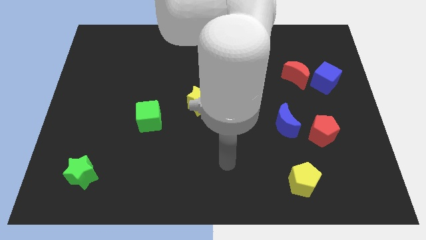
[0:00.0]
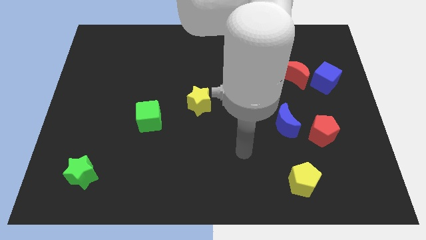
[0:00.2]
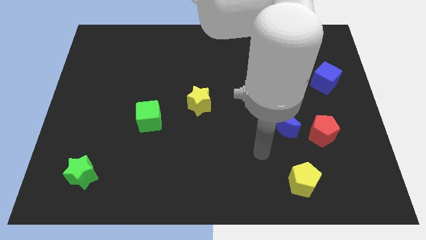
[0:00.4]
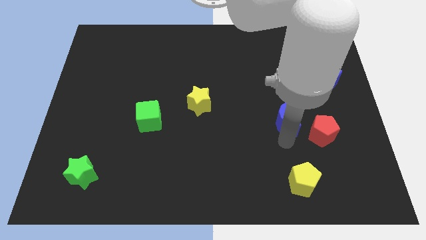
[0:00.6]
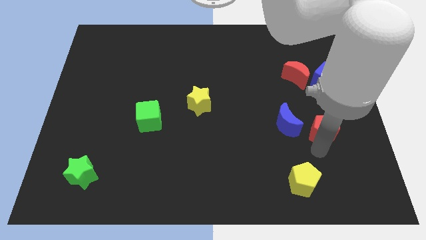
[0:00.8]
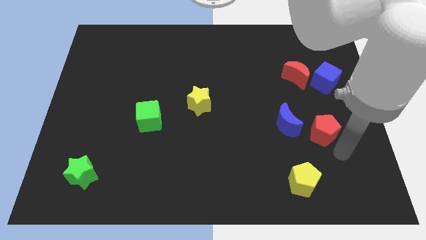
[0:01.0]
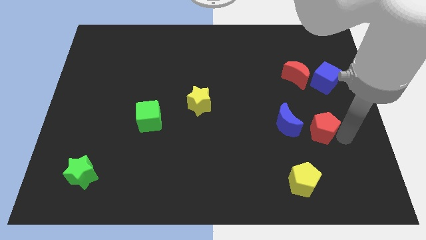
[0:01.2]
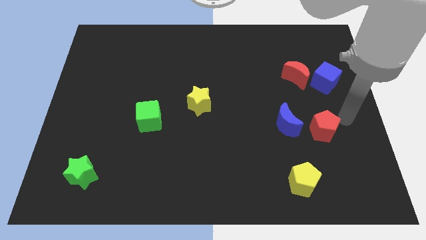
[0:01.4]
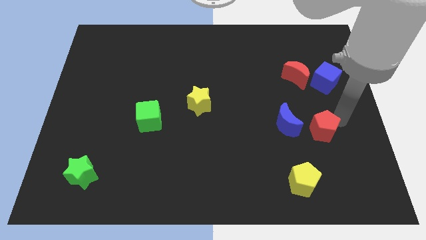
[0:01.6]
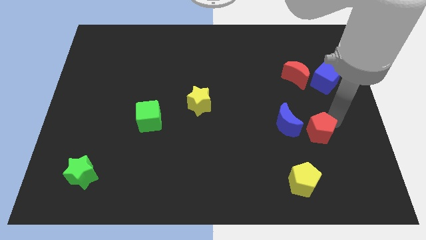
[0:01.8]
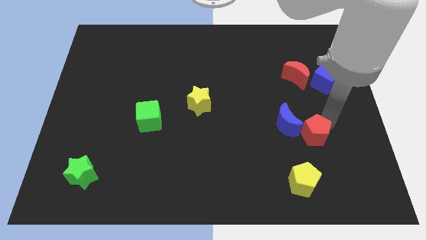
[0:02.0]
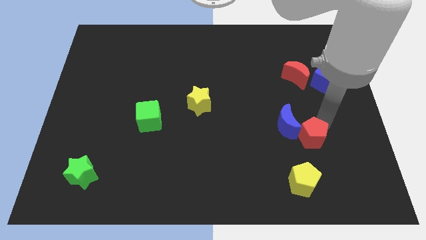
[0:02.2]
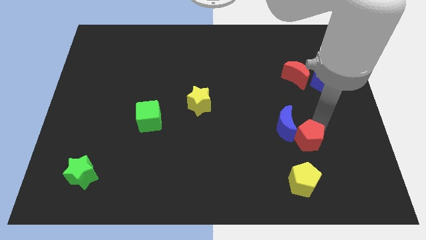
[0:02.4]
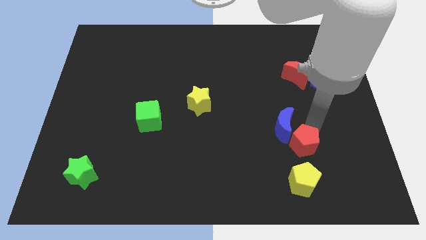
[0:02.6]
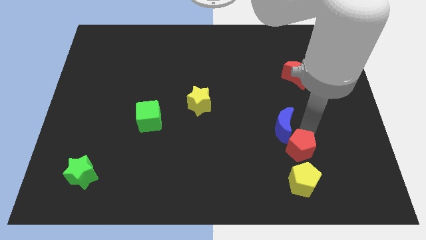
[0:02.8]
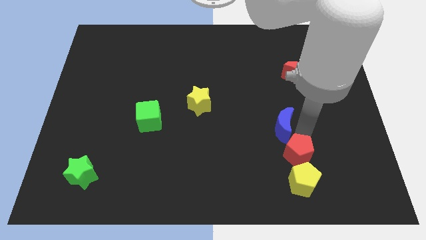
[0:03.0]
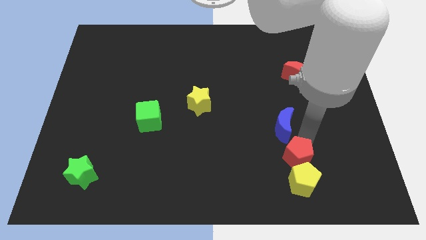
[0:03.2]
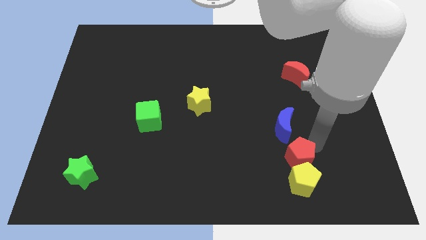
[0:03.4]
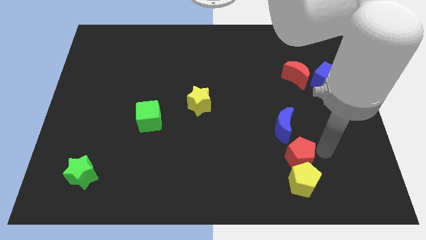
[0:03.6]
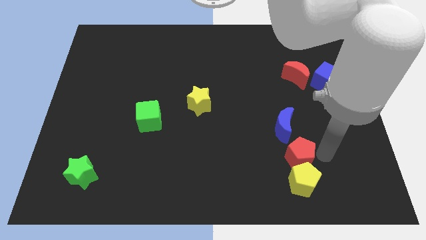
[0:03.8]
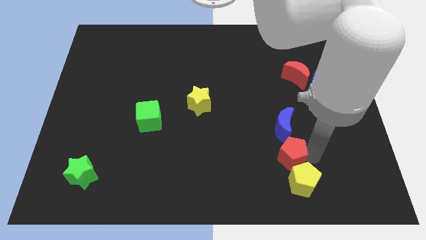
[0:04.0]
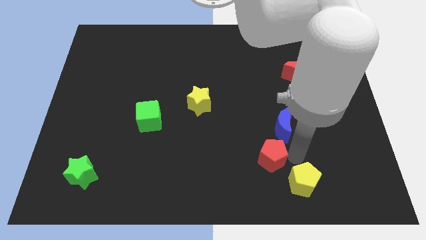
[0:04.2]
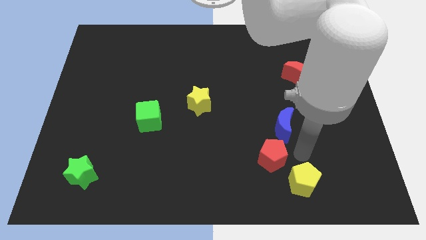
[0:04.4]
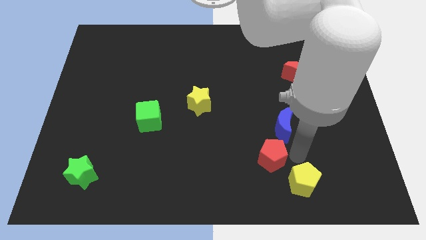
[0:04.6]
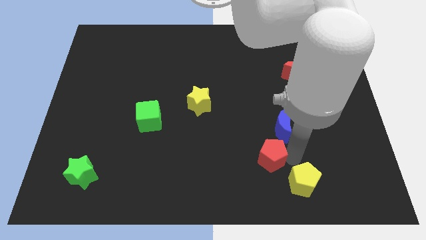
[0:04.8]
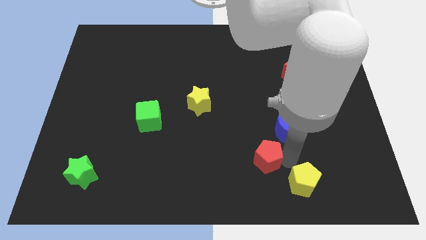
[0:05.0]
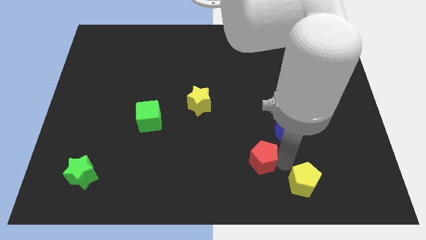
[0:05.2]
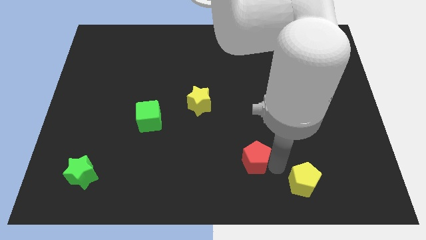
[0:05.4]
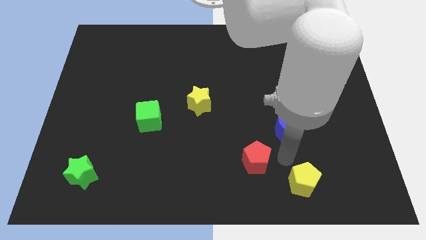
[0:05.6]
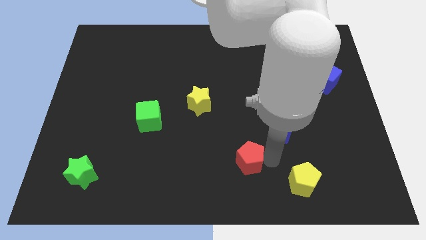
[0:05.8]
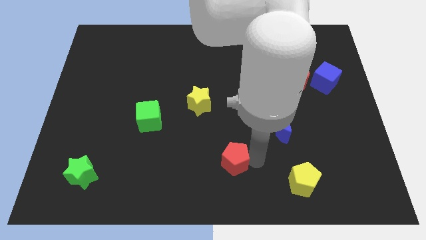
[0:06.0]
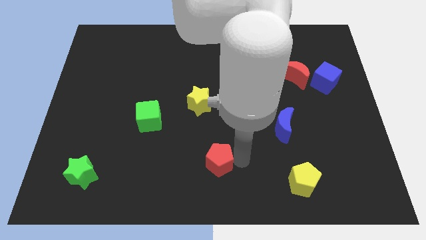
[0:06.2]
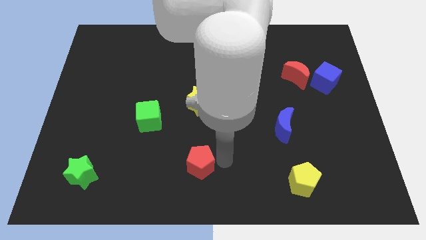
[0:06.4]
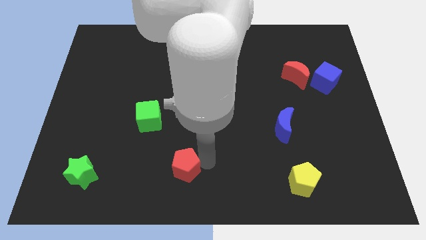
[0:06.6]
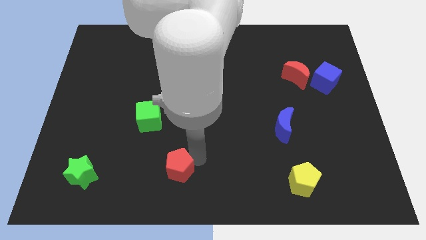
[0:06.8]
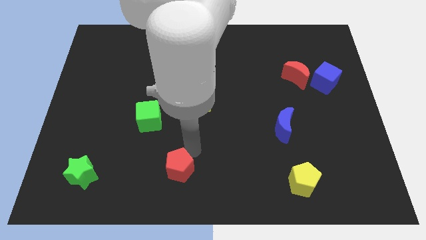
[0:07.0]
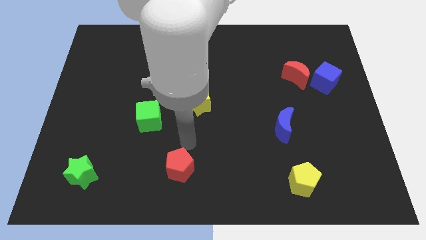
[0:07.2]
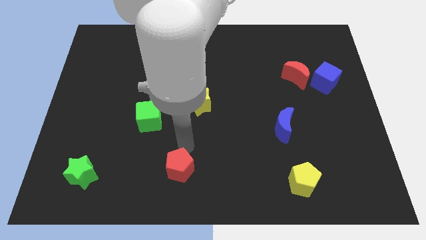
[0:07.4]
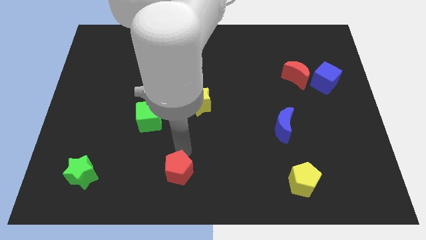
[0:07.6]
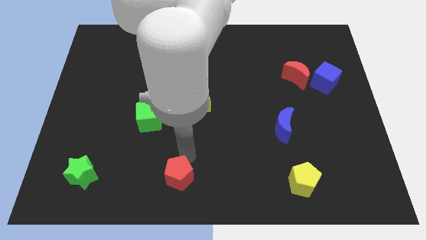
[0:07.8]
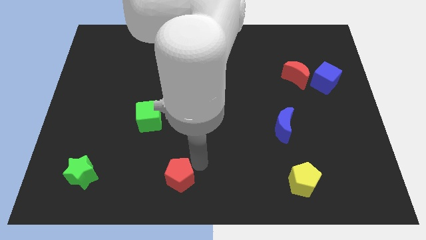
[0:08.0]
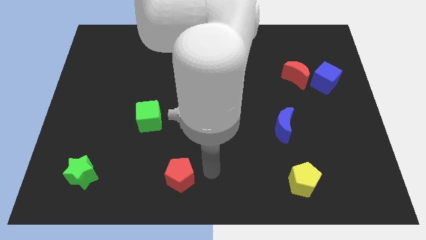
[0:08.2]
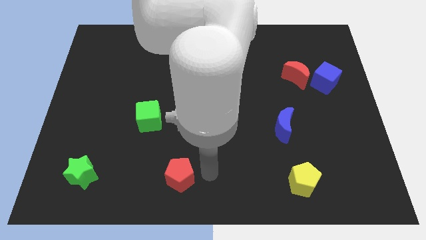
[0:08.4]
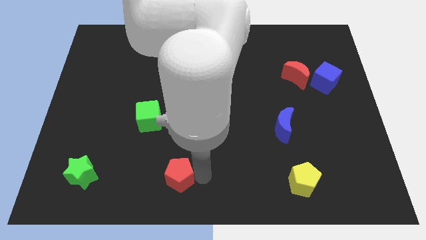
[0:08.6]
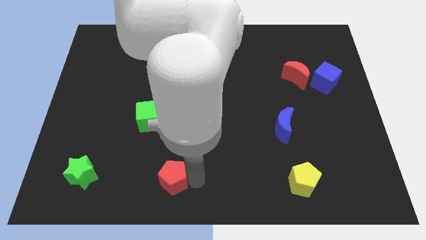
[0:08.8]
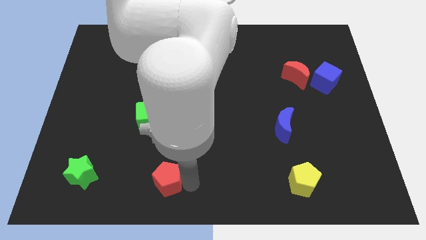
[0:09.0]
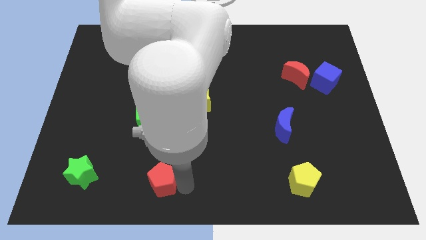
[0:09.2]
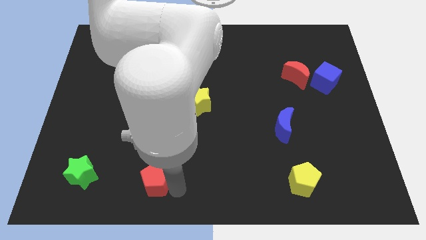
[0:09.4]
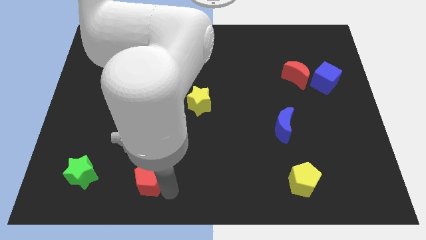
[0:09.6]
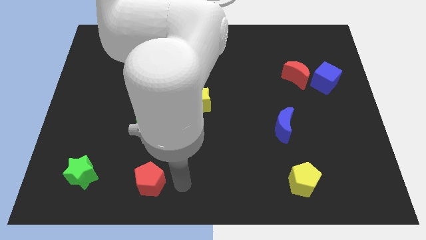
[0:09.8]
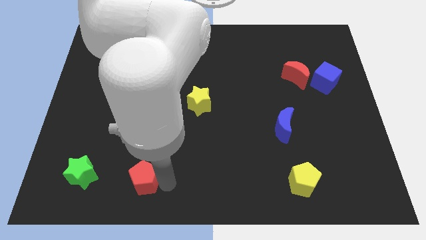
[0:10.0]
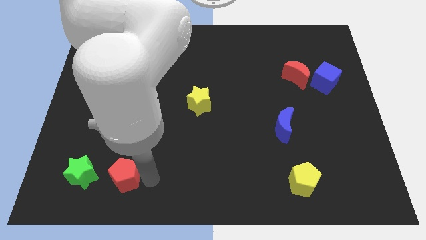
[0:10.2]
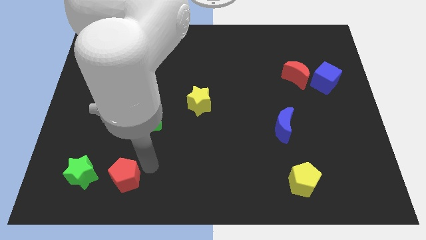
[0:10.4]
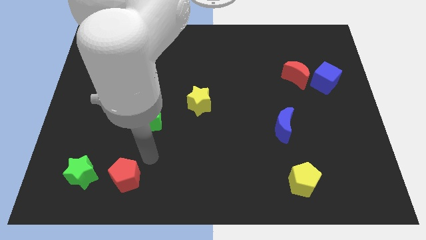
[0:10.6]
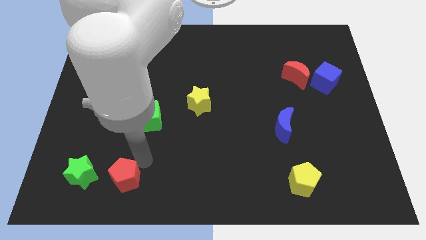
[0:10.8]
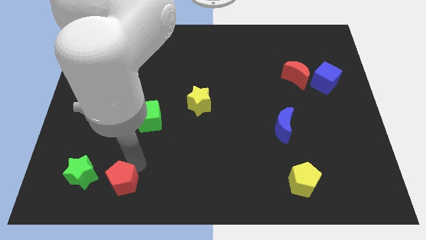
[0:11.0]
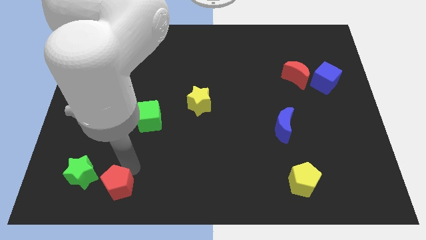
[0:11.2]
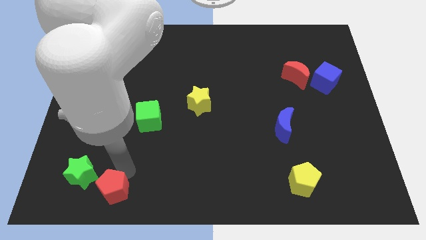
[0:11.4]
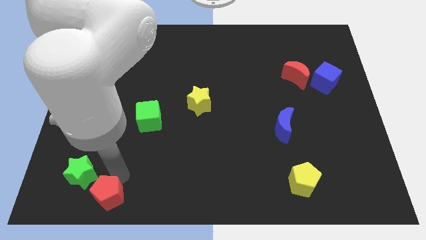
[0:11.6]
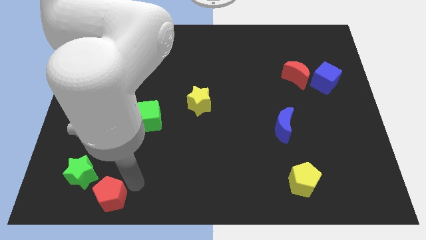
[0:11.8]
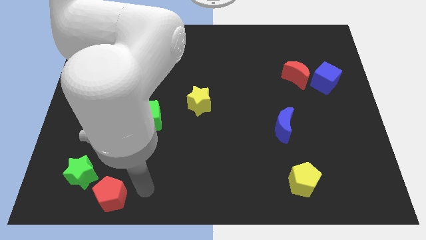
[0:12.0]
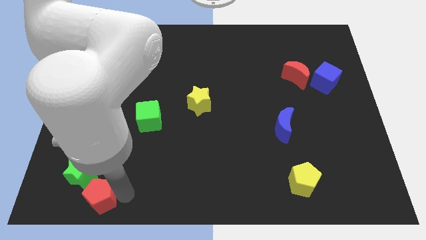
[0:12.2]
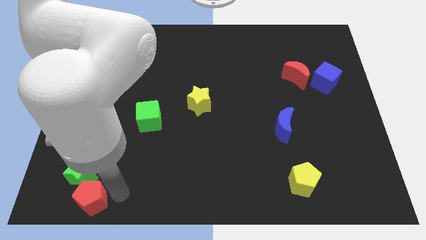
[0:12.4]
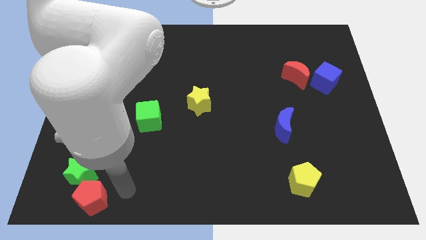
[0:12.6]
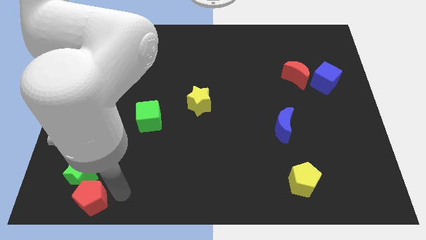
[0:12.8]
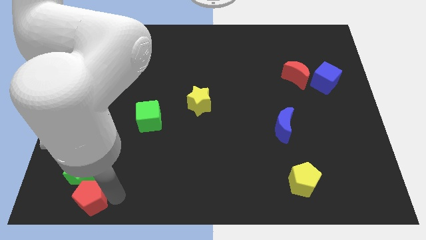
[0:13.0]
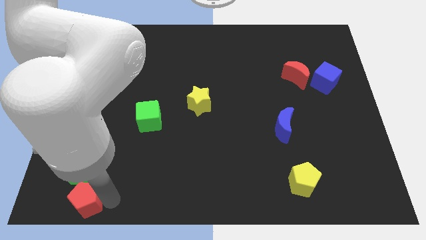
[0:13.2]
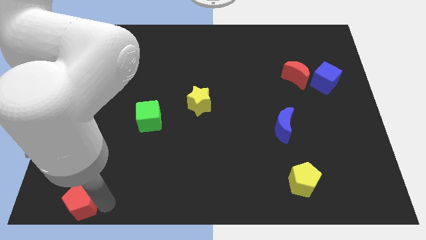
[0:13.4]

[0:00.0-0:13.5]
slide the red pentagon to the lower left corner
